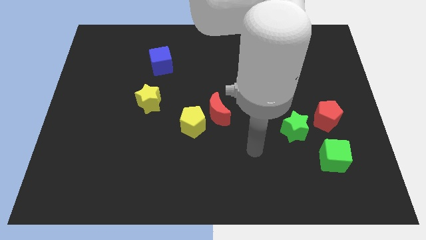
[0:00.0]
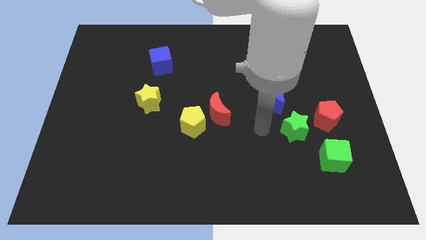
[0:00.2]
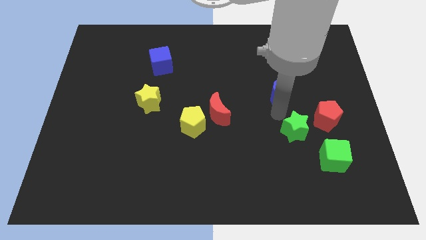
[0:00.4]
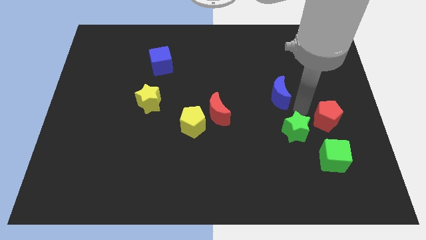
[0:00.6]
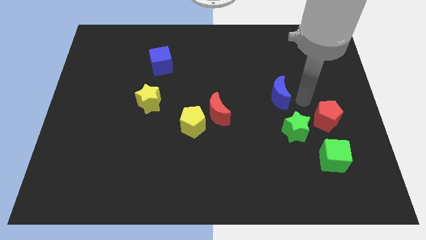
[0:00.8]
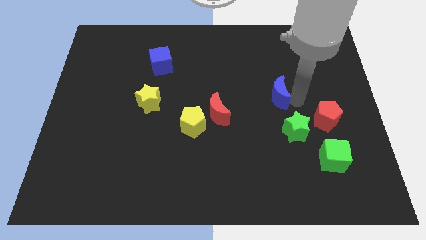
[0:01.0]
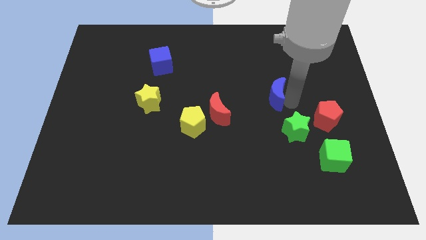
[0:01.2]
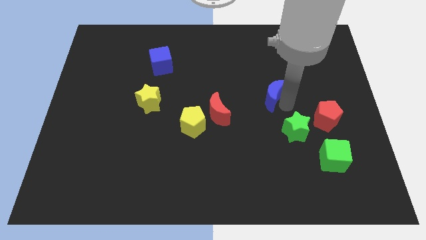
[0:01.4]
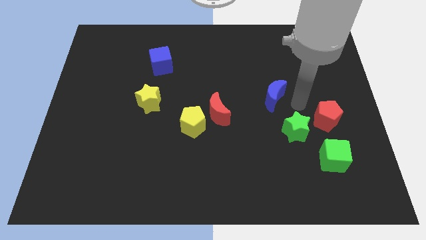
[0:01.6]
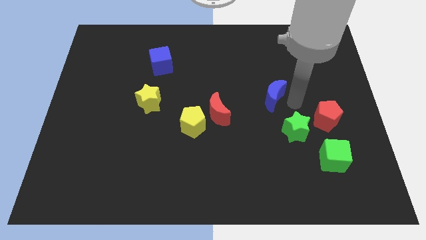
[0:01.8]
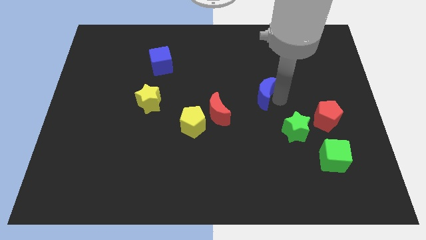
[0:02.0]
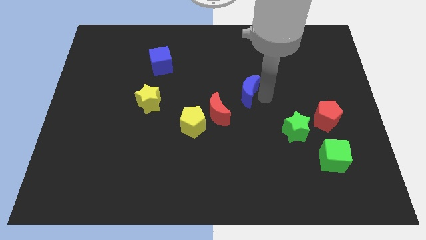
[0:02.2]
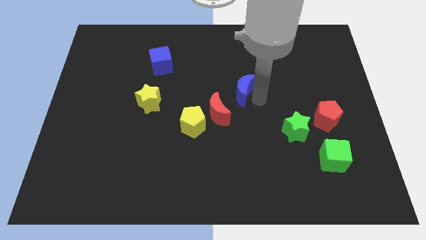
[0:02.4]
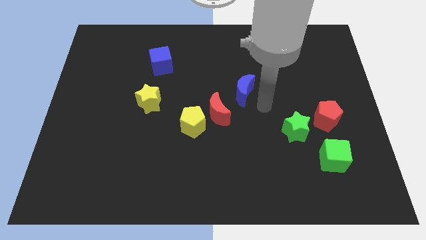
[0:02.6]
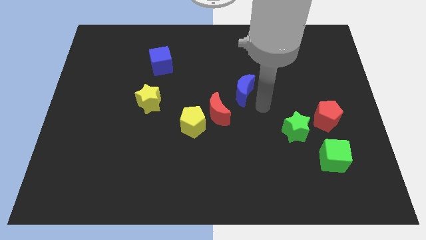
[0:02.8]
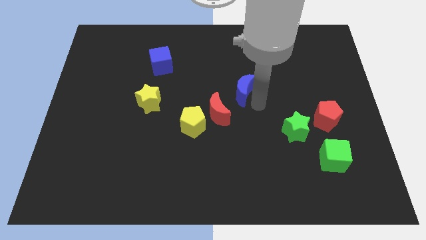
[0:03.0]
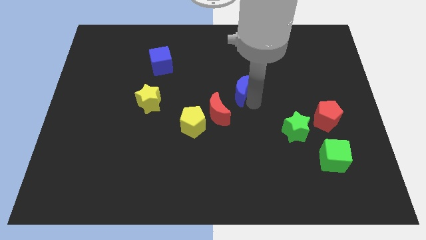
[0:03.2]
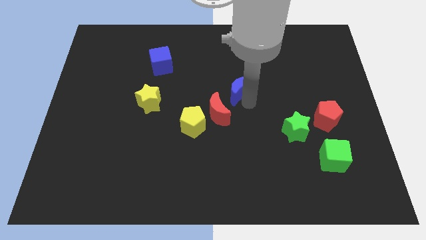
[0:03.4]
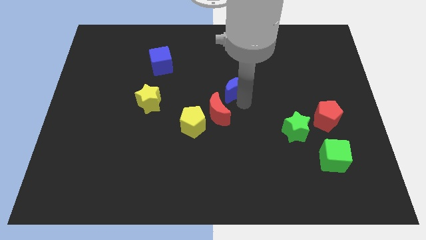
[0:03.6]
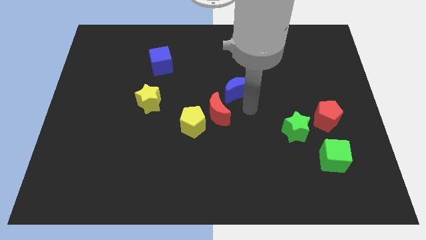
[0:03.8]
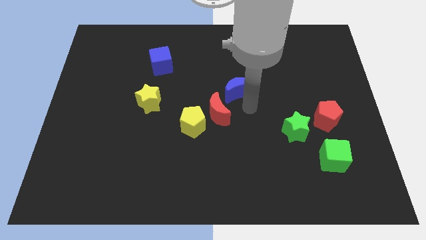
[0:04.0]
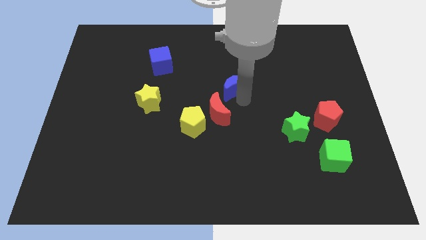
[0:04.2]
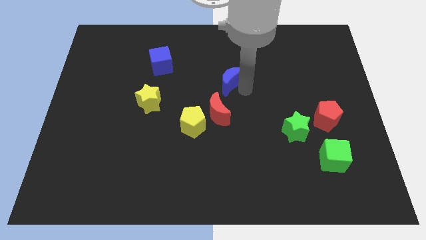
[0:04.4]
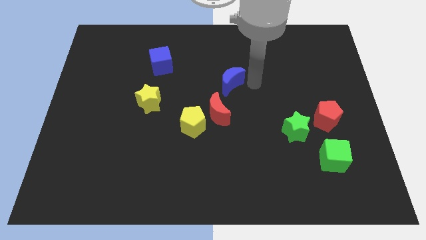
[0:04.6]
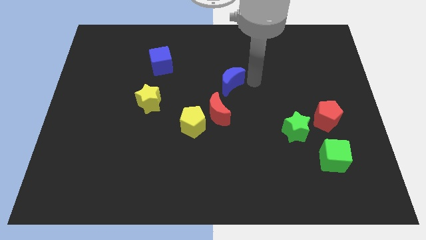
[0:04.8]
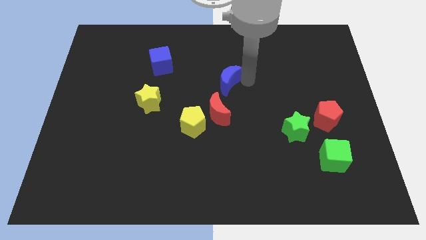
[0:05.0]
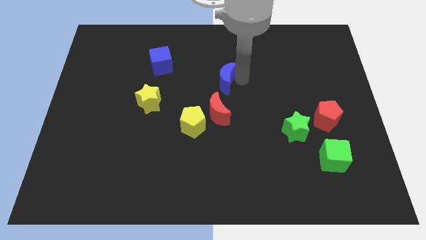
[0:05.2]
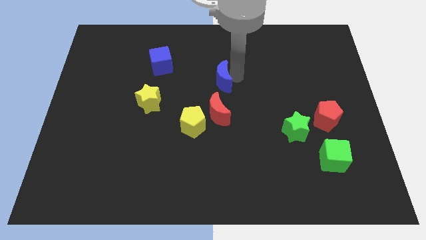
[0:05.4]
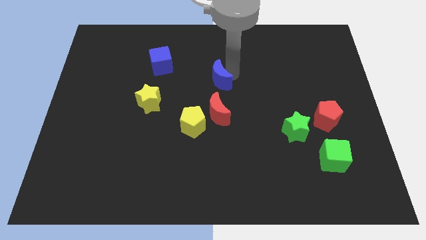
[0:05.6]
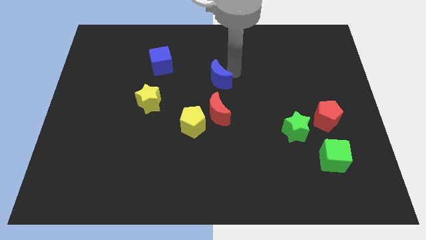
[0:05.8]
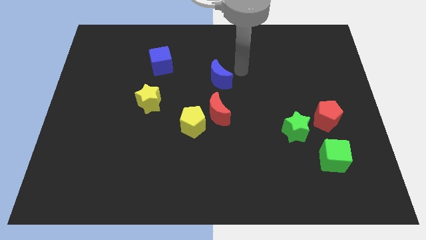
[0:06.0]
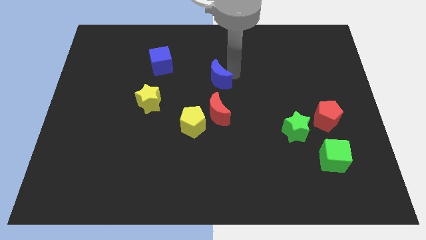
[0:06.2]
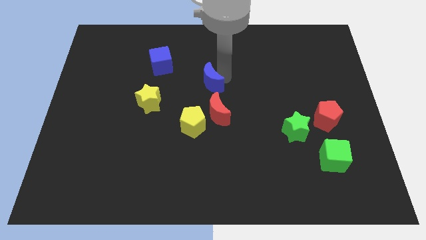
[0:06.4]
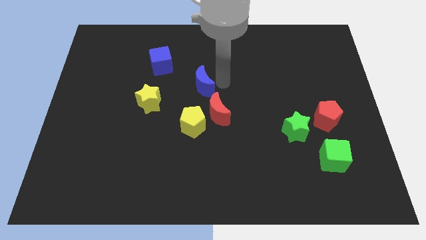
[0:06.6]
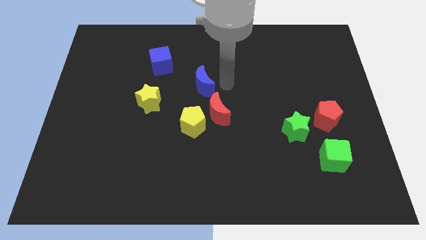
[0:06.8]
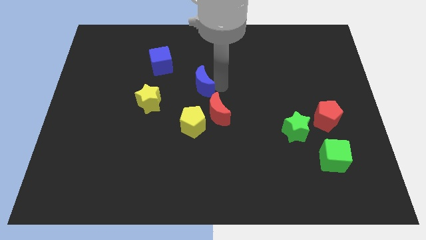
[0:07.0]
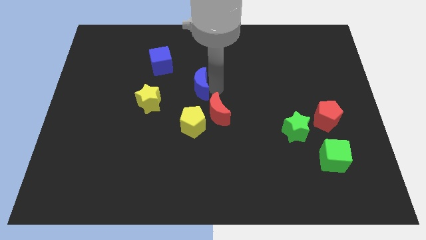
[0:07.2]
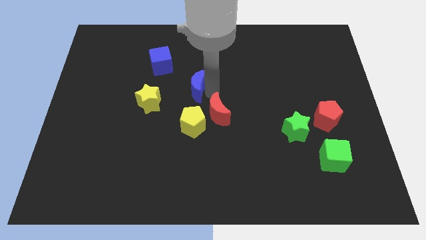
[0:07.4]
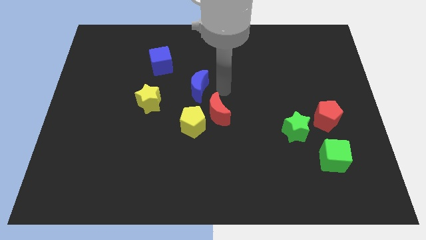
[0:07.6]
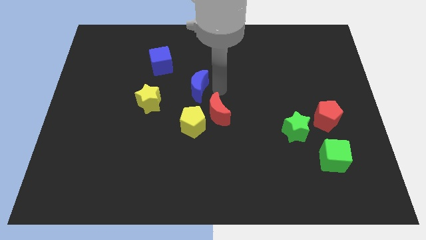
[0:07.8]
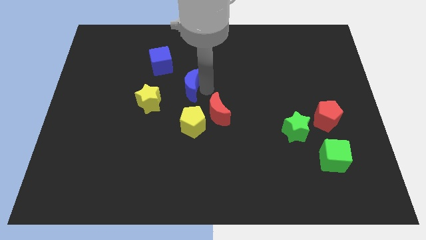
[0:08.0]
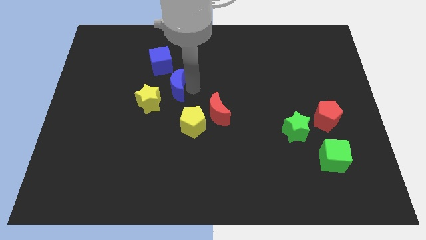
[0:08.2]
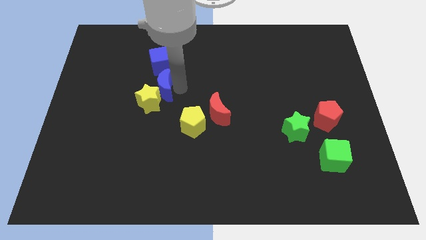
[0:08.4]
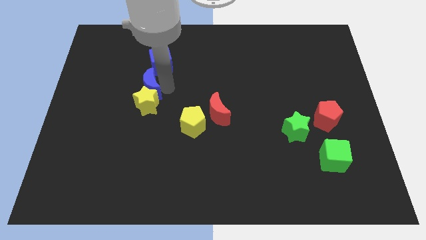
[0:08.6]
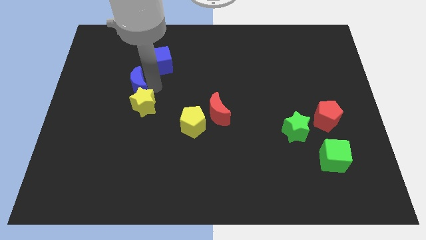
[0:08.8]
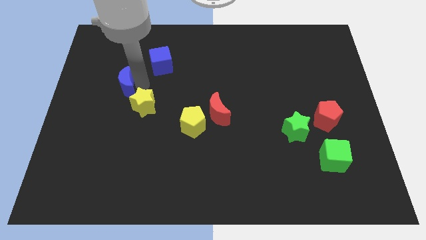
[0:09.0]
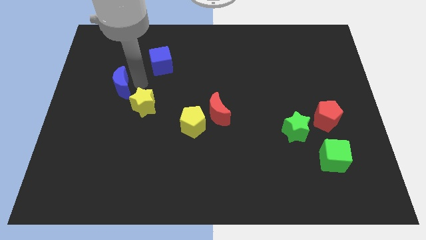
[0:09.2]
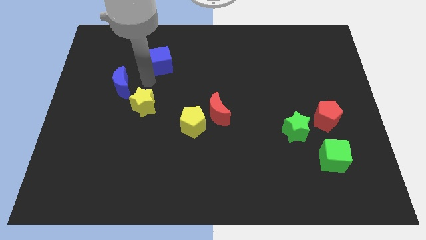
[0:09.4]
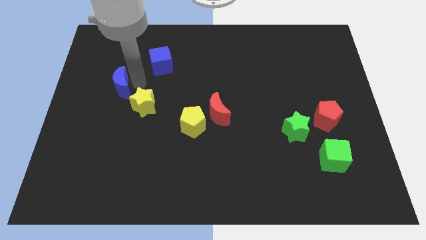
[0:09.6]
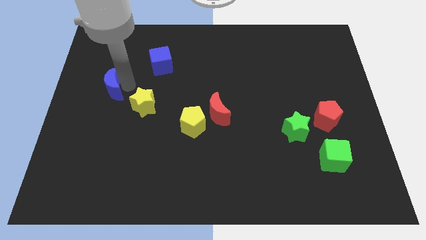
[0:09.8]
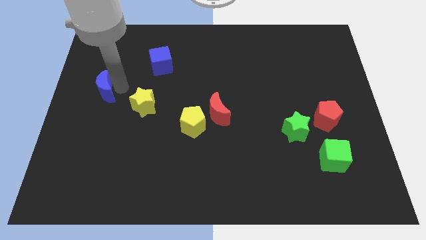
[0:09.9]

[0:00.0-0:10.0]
push the blue moon to the left side of the board
